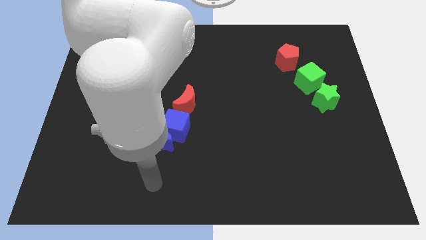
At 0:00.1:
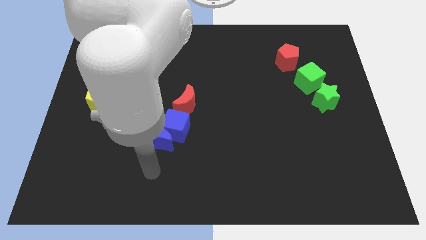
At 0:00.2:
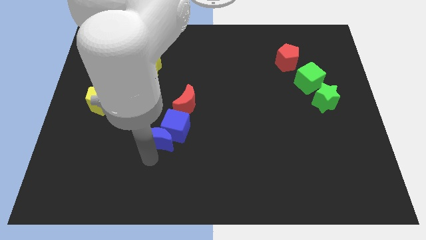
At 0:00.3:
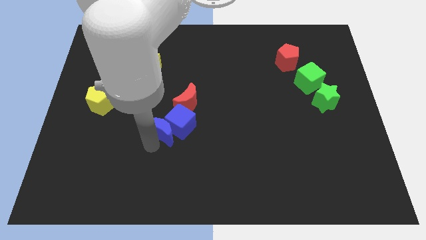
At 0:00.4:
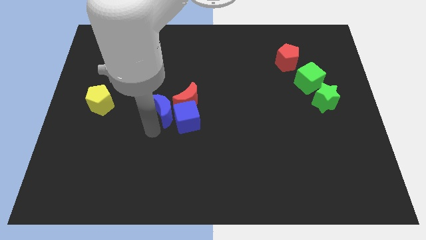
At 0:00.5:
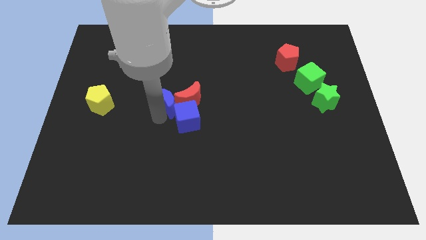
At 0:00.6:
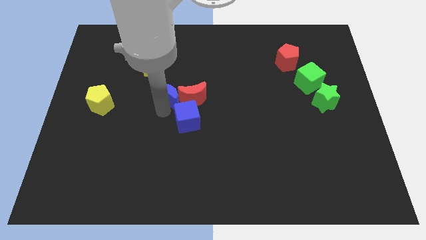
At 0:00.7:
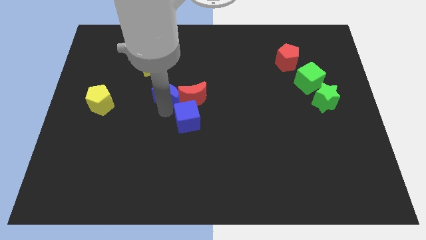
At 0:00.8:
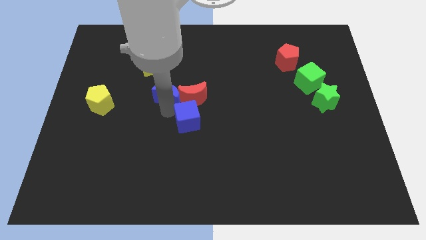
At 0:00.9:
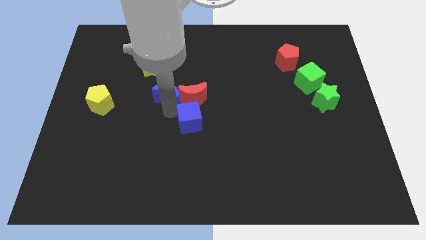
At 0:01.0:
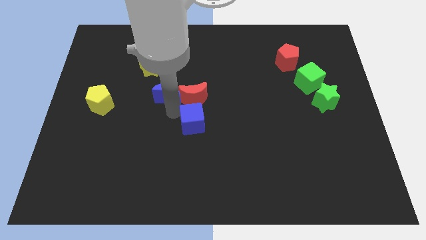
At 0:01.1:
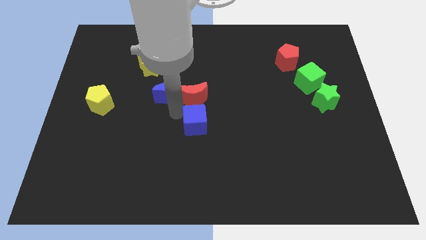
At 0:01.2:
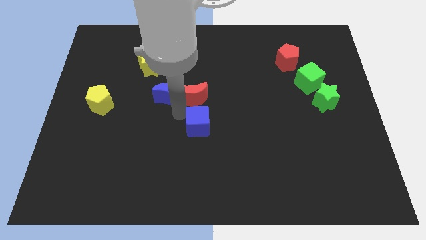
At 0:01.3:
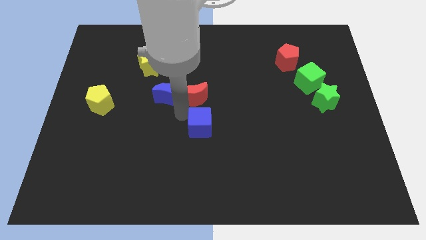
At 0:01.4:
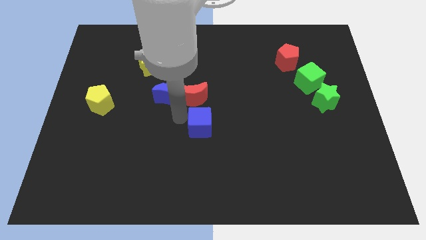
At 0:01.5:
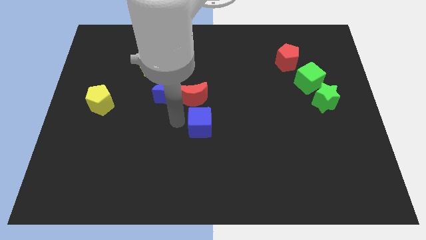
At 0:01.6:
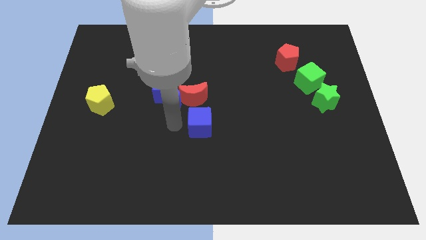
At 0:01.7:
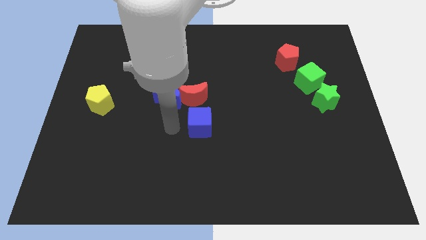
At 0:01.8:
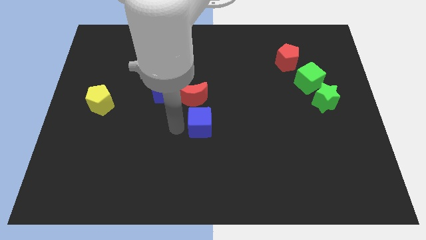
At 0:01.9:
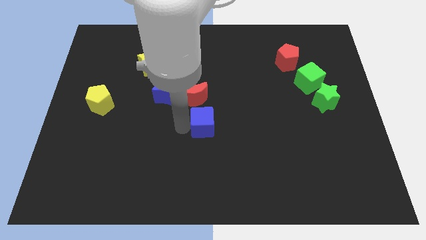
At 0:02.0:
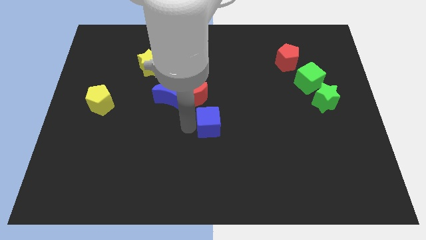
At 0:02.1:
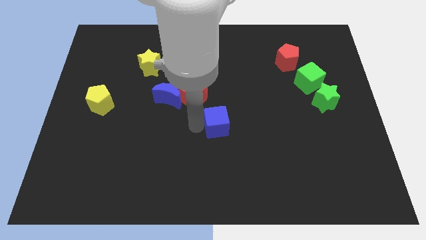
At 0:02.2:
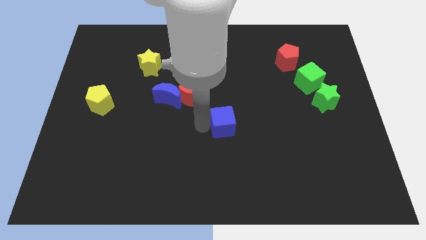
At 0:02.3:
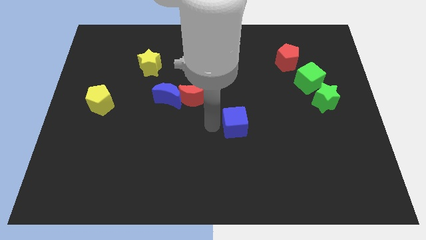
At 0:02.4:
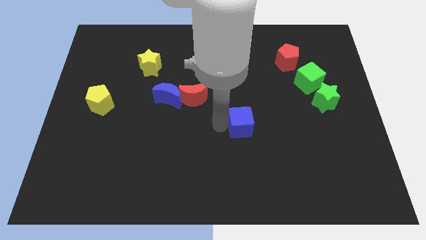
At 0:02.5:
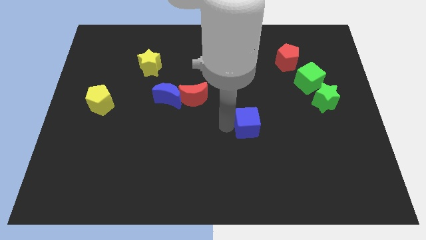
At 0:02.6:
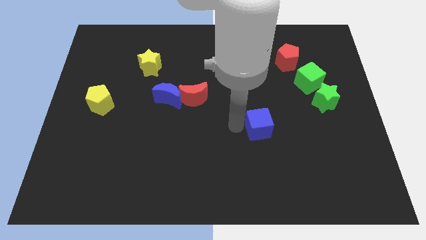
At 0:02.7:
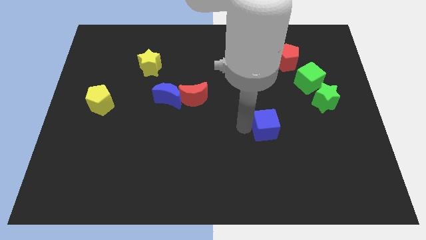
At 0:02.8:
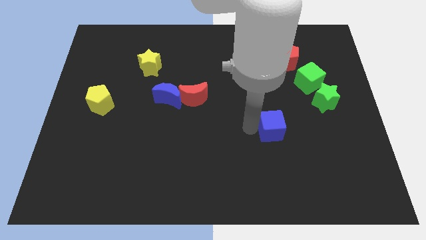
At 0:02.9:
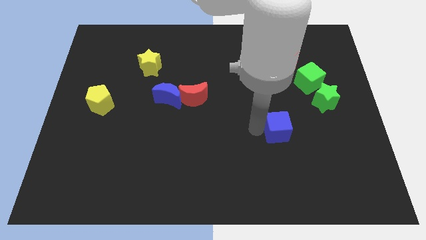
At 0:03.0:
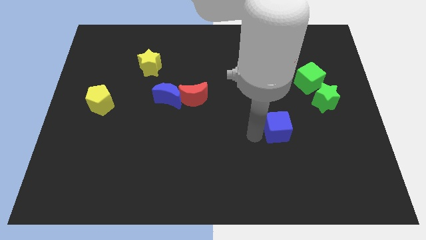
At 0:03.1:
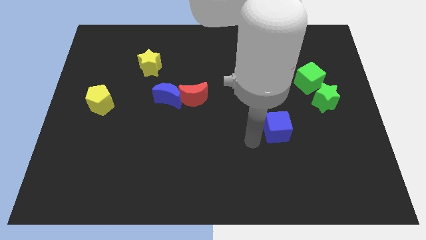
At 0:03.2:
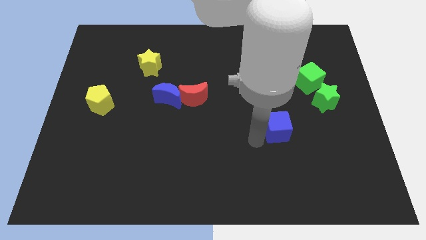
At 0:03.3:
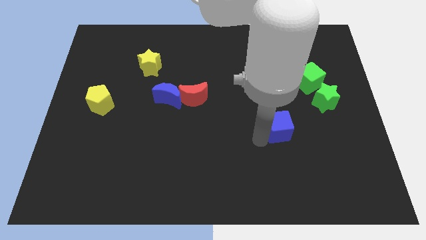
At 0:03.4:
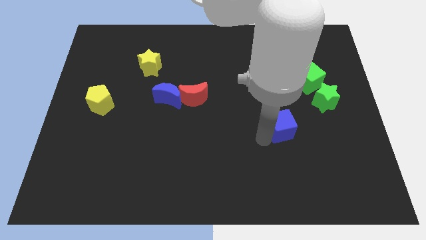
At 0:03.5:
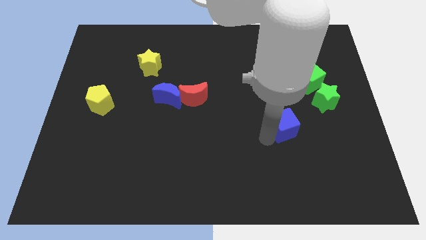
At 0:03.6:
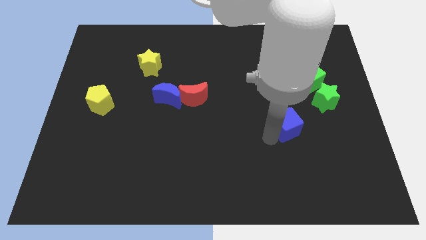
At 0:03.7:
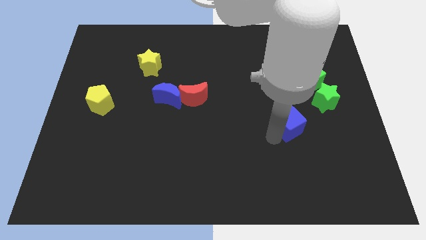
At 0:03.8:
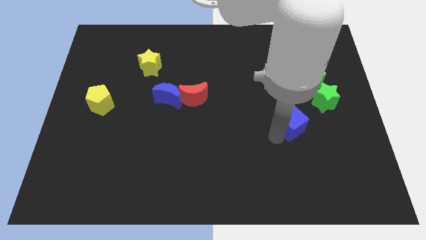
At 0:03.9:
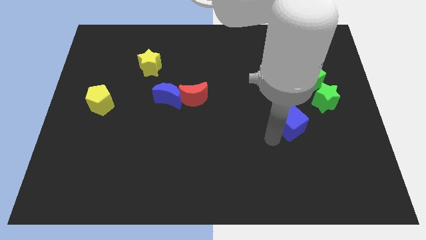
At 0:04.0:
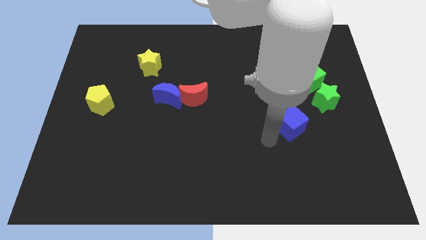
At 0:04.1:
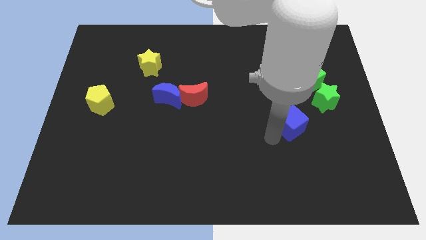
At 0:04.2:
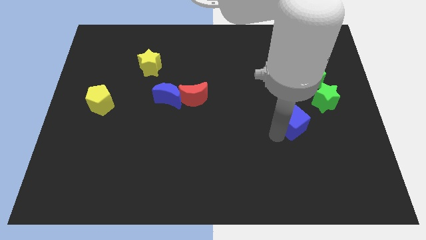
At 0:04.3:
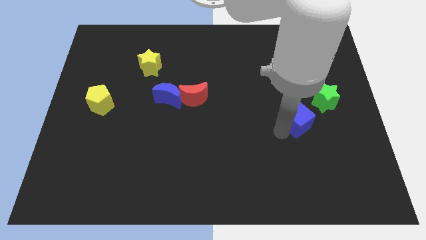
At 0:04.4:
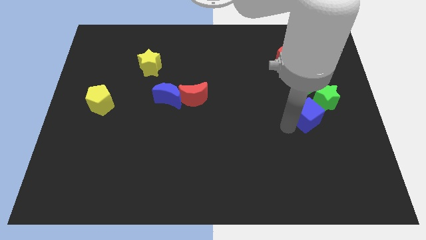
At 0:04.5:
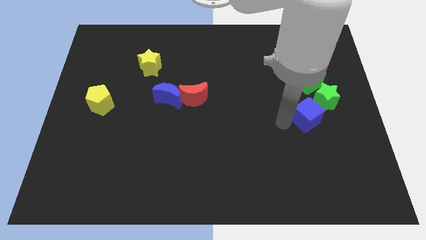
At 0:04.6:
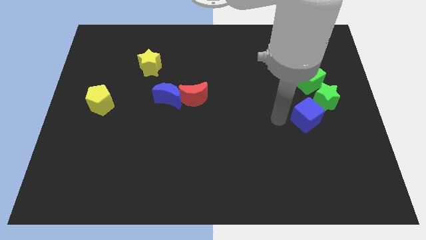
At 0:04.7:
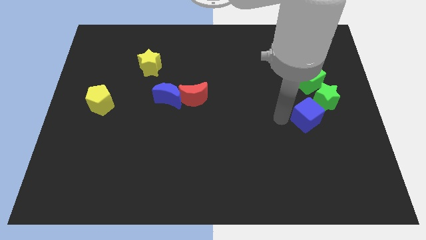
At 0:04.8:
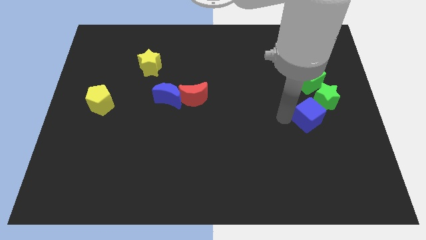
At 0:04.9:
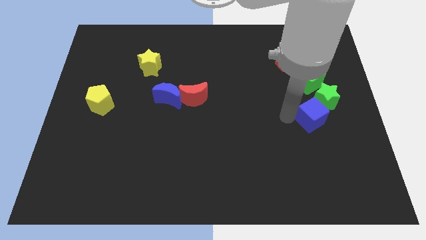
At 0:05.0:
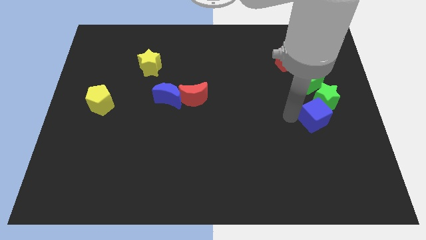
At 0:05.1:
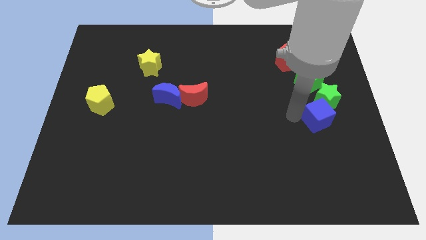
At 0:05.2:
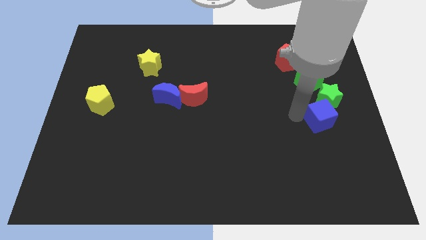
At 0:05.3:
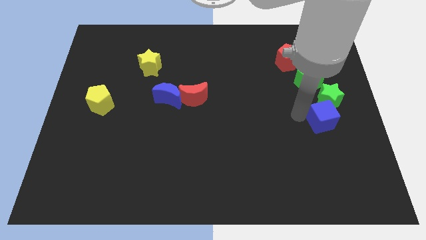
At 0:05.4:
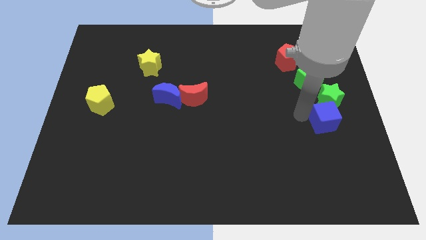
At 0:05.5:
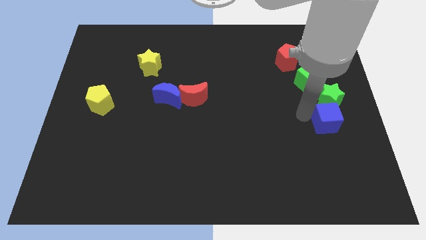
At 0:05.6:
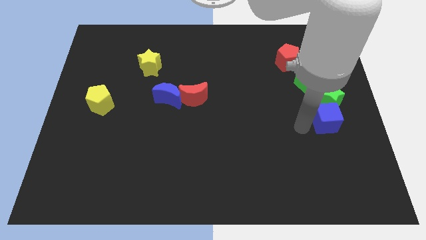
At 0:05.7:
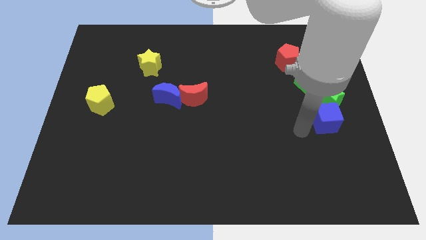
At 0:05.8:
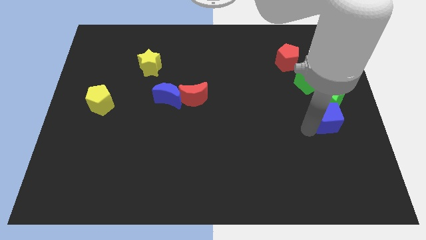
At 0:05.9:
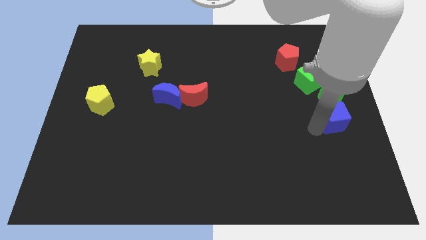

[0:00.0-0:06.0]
put the blue cube to the right side of the board

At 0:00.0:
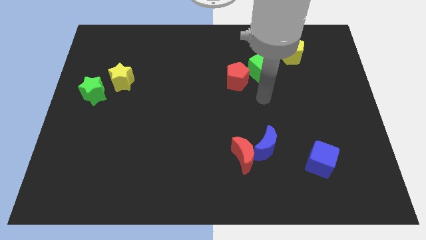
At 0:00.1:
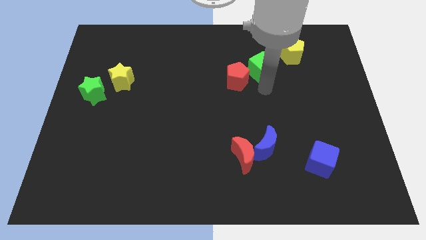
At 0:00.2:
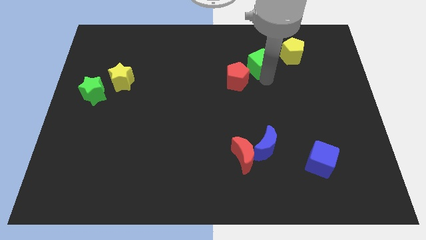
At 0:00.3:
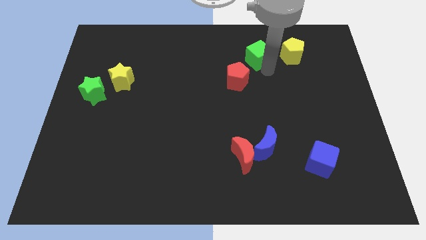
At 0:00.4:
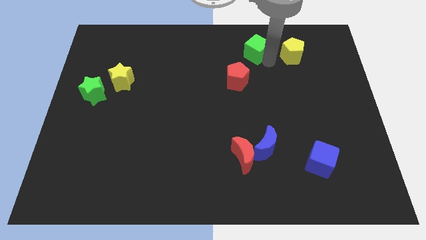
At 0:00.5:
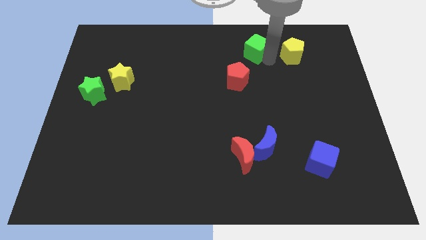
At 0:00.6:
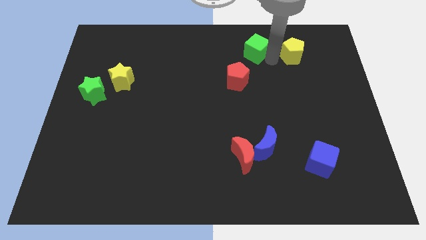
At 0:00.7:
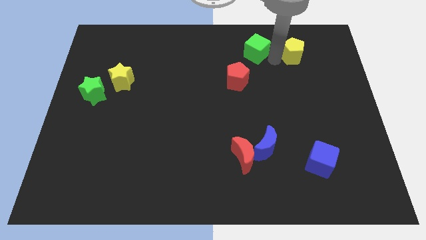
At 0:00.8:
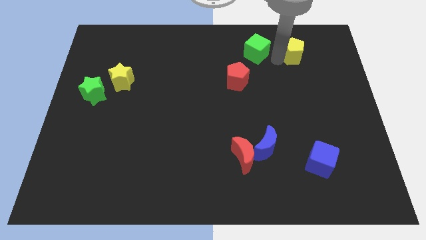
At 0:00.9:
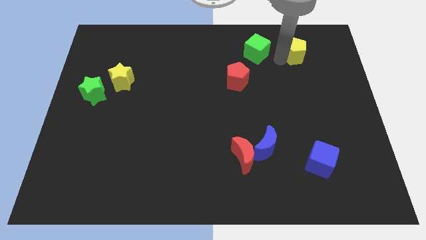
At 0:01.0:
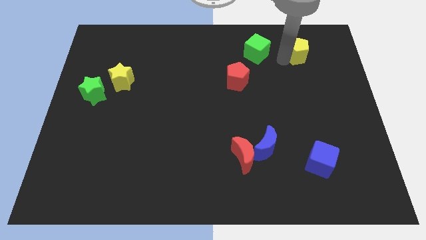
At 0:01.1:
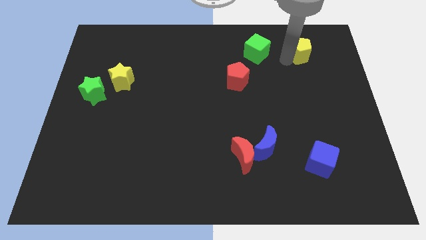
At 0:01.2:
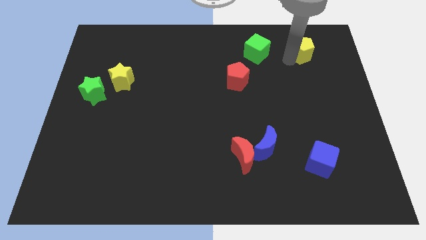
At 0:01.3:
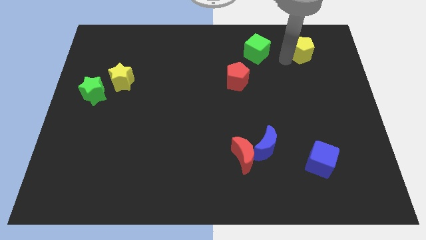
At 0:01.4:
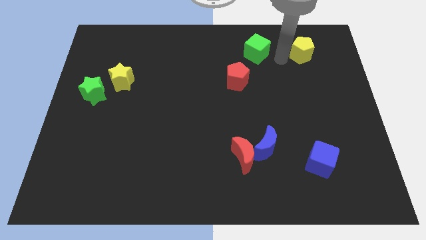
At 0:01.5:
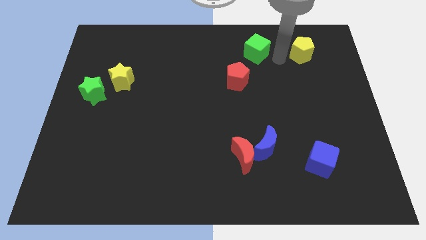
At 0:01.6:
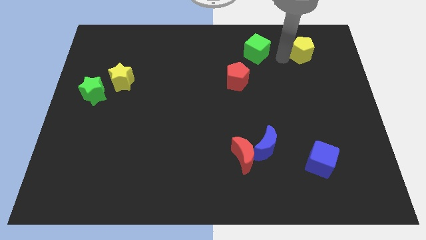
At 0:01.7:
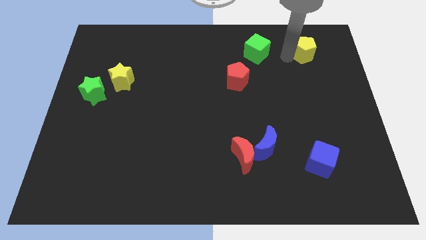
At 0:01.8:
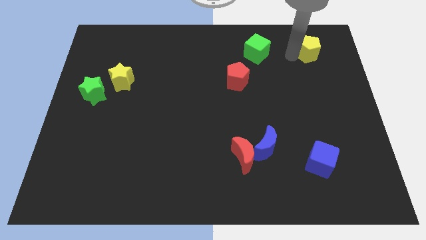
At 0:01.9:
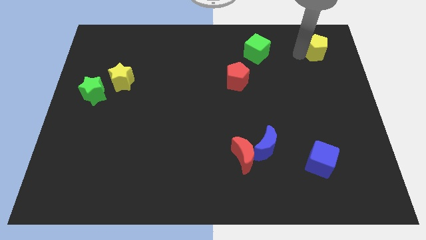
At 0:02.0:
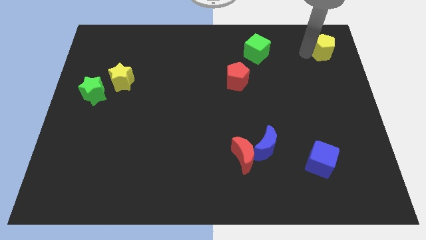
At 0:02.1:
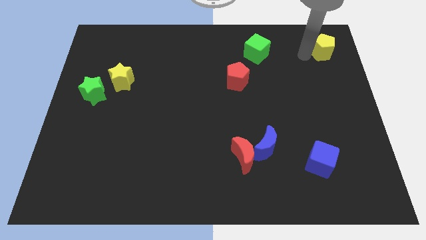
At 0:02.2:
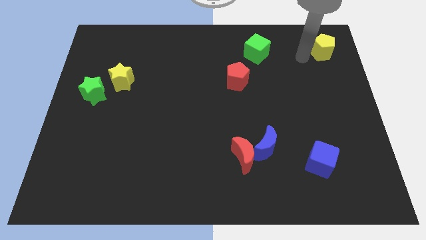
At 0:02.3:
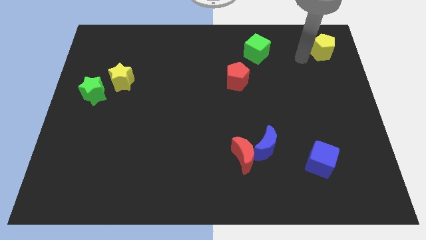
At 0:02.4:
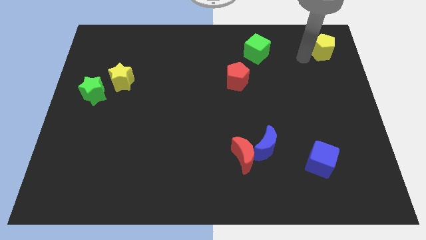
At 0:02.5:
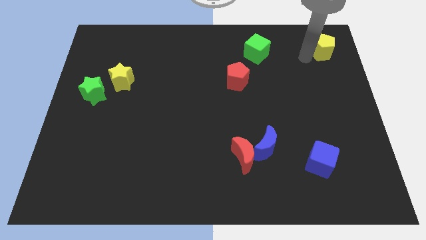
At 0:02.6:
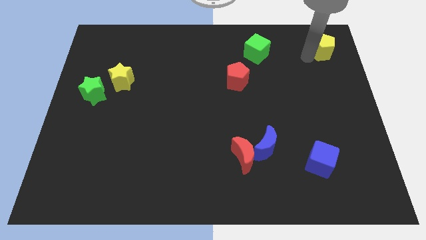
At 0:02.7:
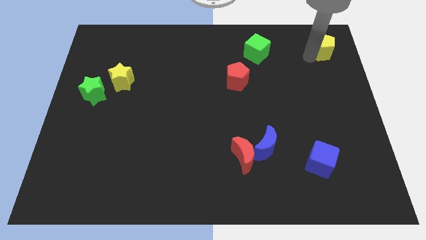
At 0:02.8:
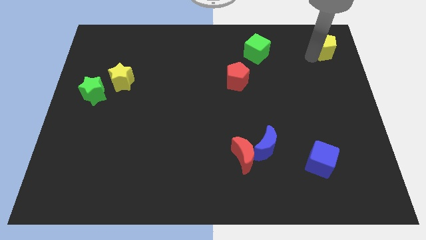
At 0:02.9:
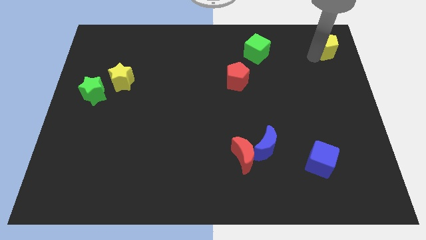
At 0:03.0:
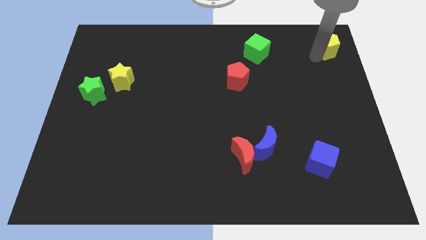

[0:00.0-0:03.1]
slide the yellow pentagon to the top right of the board
